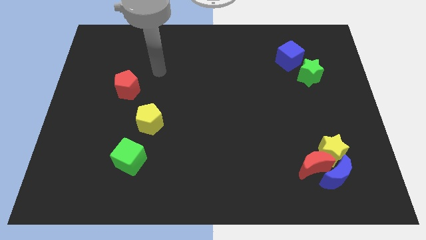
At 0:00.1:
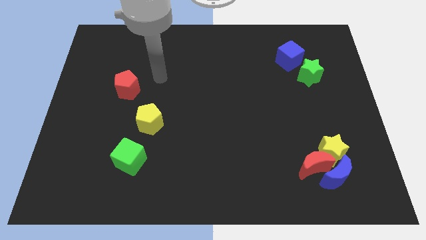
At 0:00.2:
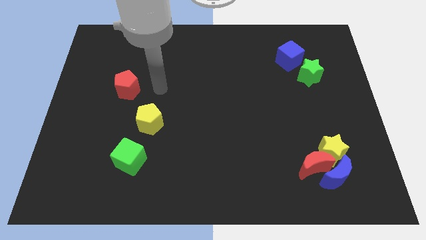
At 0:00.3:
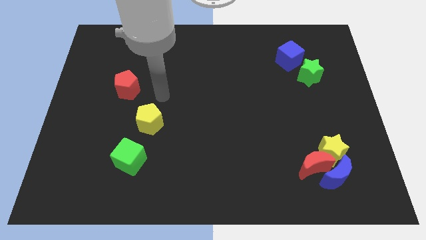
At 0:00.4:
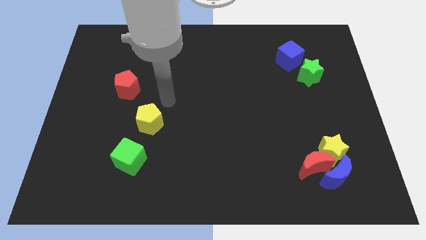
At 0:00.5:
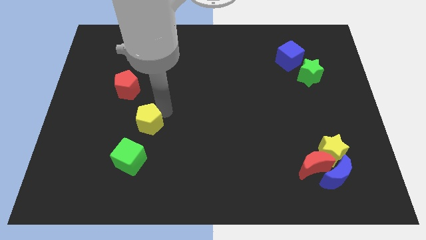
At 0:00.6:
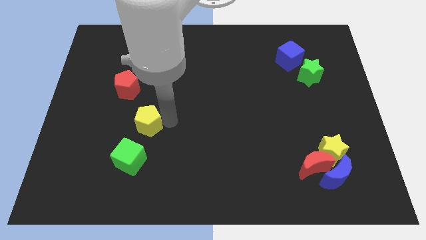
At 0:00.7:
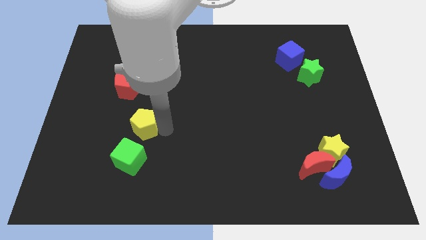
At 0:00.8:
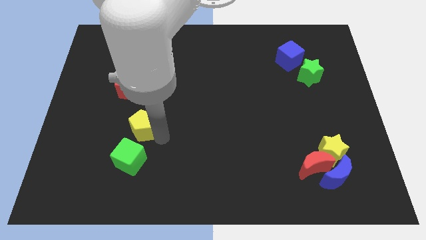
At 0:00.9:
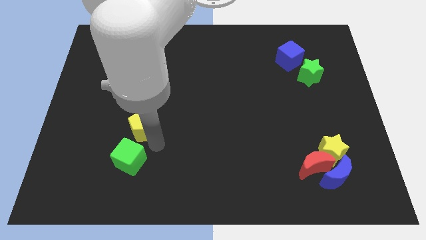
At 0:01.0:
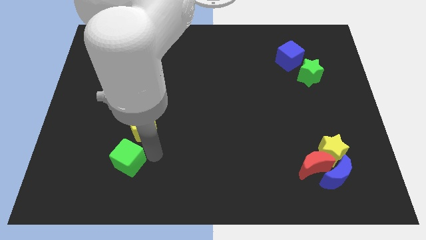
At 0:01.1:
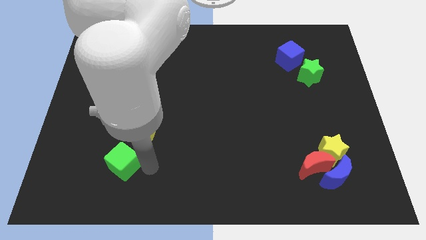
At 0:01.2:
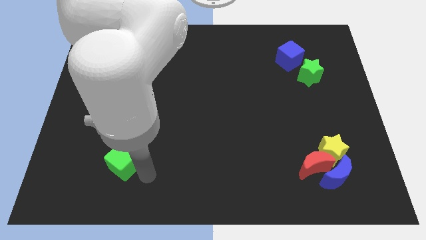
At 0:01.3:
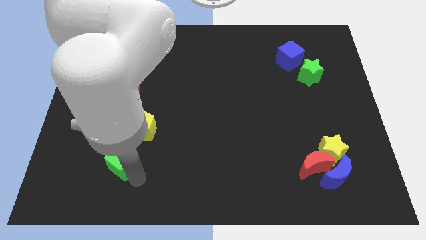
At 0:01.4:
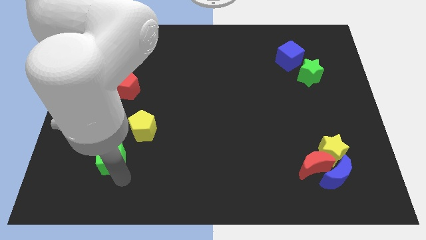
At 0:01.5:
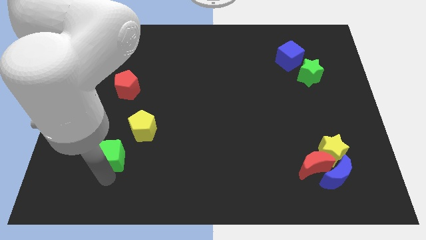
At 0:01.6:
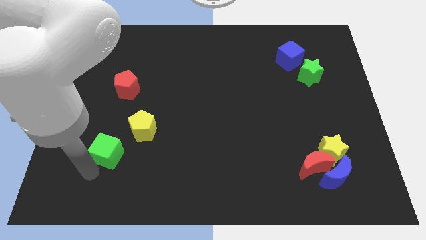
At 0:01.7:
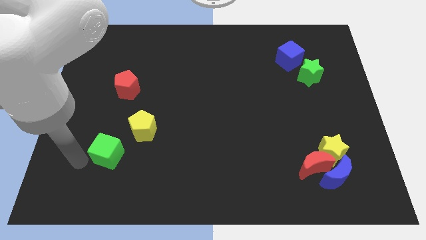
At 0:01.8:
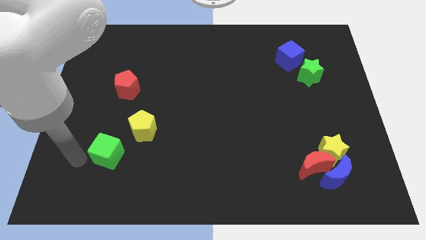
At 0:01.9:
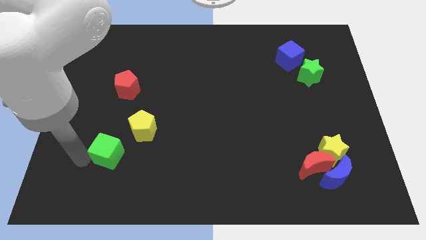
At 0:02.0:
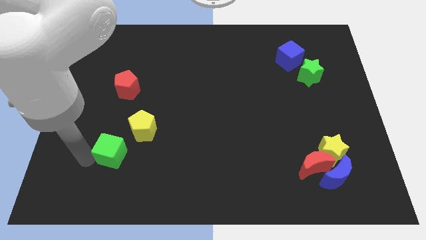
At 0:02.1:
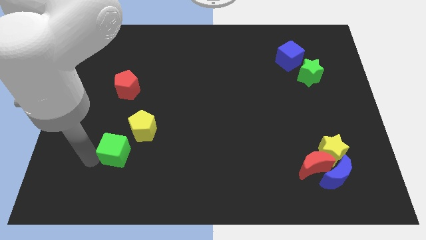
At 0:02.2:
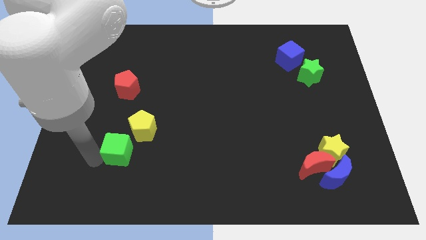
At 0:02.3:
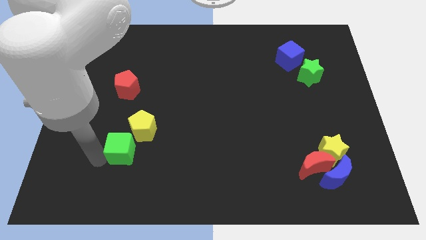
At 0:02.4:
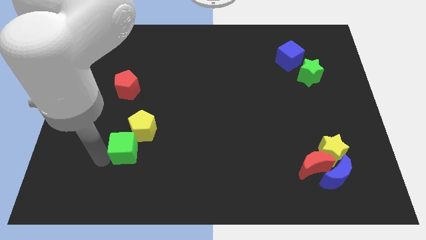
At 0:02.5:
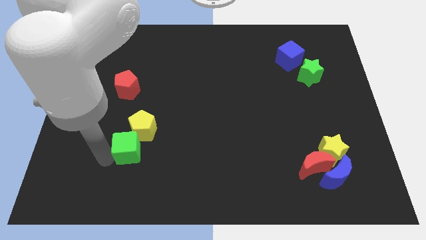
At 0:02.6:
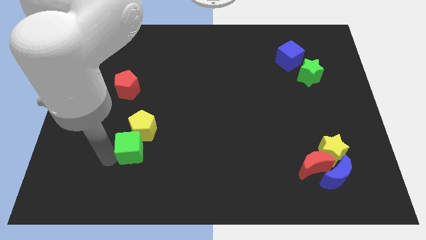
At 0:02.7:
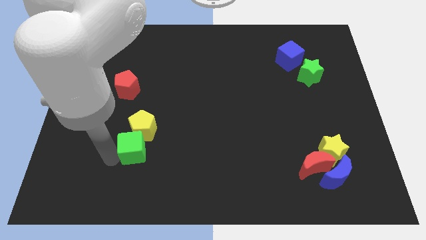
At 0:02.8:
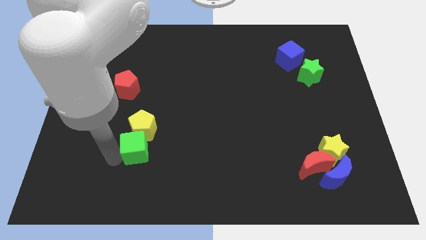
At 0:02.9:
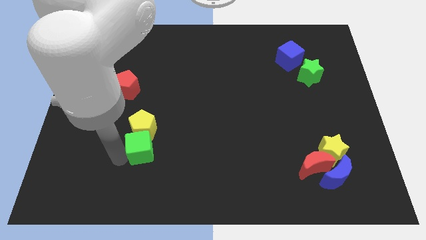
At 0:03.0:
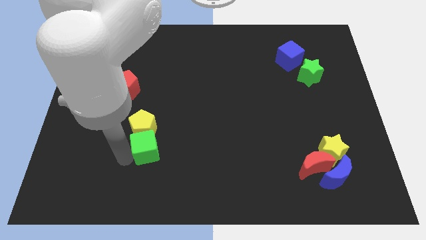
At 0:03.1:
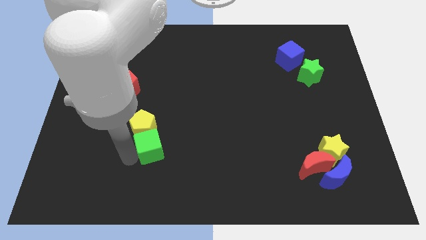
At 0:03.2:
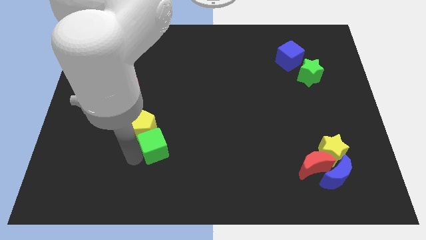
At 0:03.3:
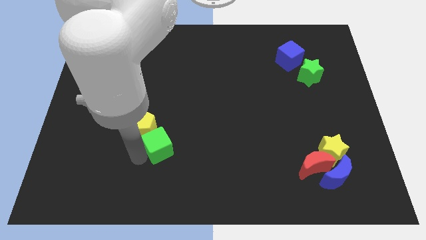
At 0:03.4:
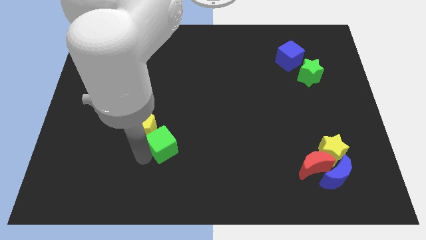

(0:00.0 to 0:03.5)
slightly push the green cube diagonally upwards and right

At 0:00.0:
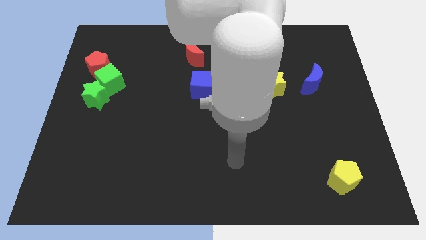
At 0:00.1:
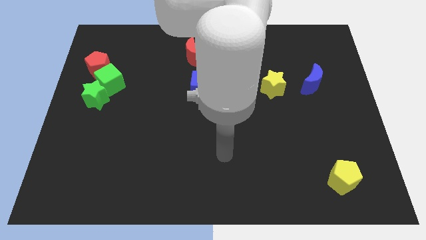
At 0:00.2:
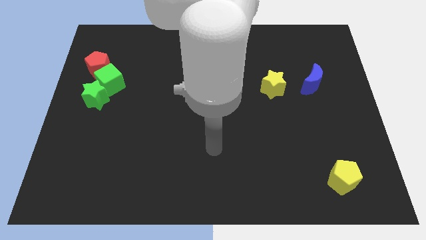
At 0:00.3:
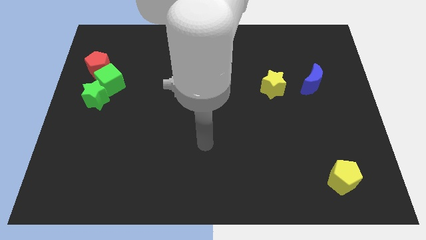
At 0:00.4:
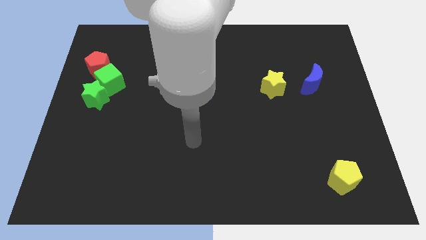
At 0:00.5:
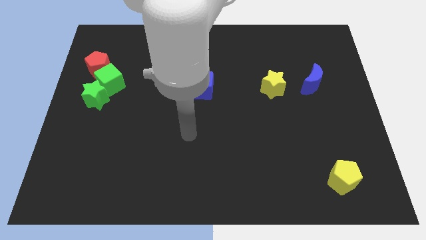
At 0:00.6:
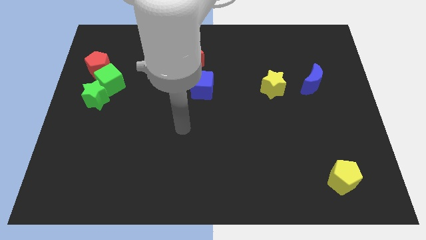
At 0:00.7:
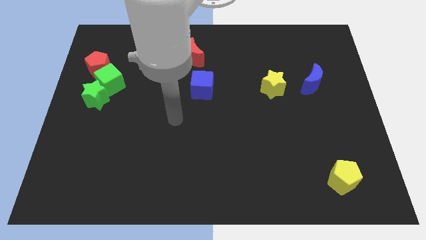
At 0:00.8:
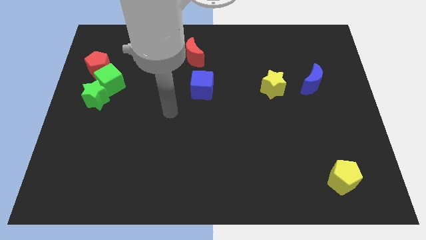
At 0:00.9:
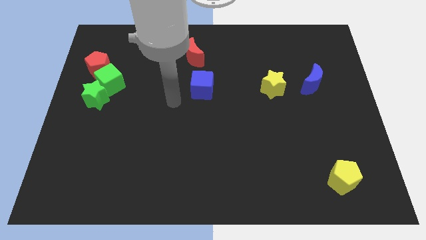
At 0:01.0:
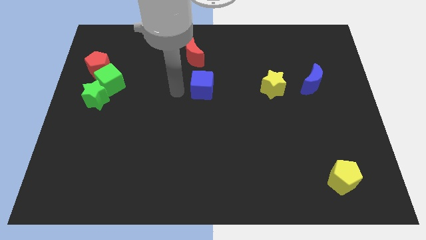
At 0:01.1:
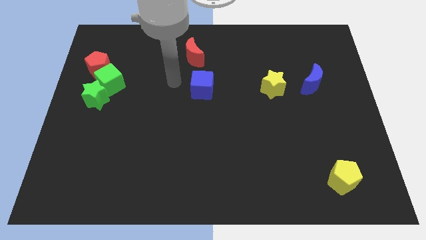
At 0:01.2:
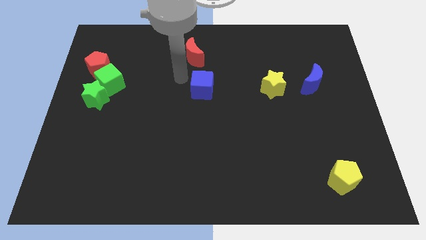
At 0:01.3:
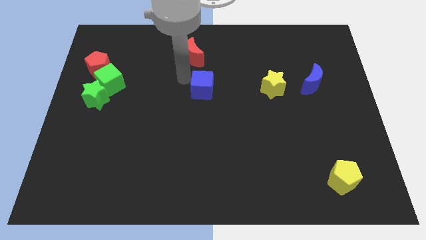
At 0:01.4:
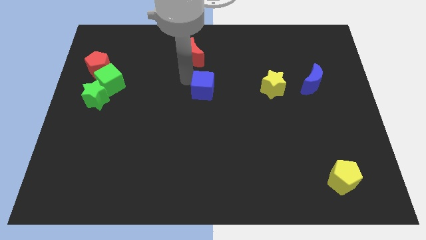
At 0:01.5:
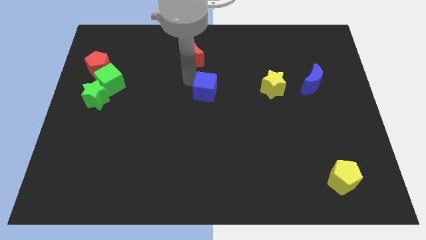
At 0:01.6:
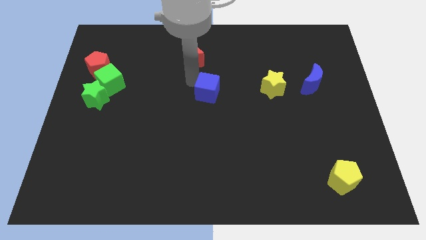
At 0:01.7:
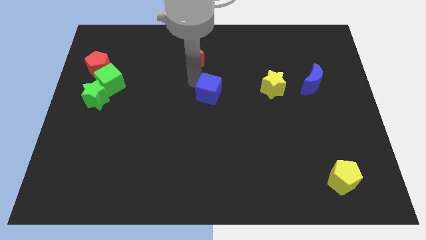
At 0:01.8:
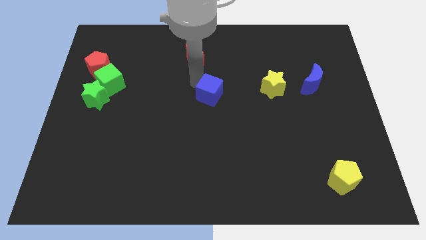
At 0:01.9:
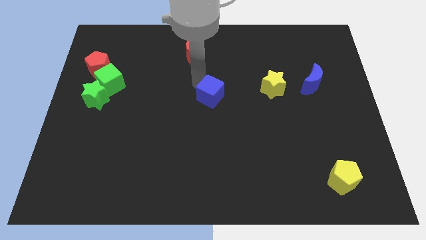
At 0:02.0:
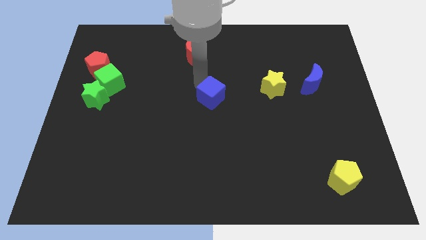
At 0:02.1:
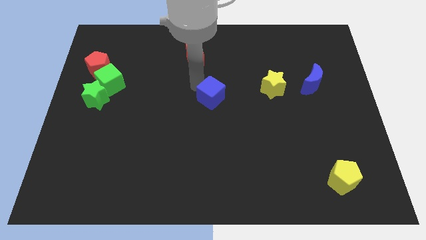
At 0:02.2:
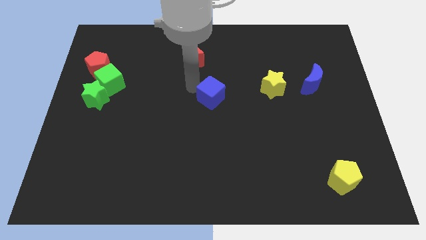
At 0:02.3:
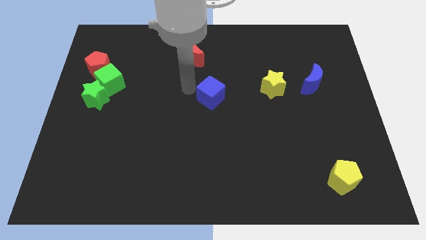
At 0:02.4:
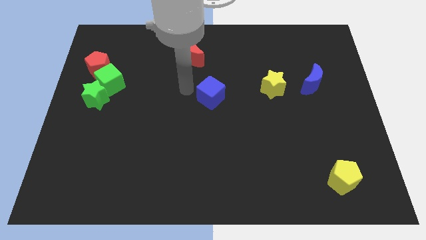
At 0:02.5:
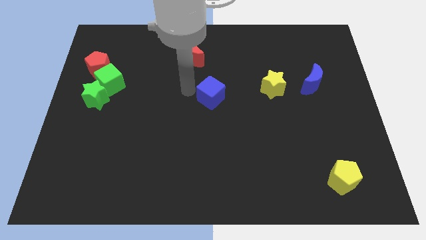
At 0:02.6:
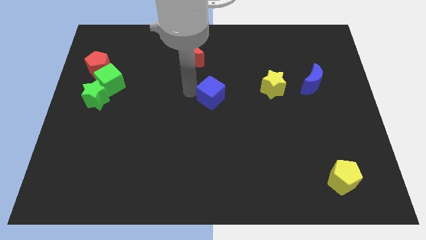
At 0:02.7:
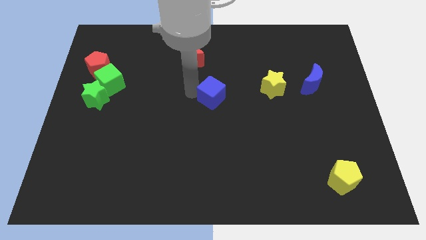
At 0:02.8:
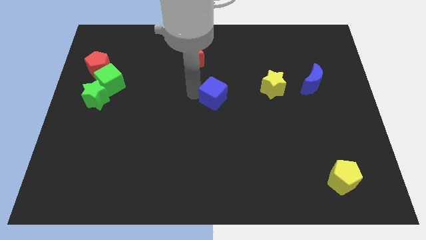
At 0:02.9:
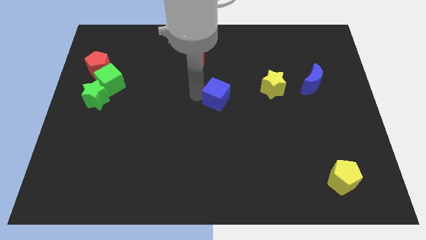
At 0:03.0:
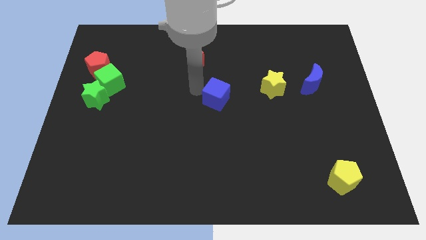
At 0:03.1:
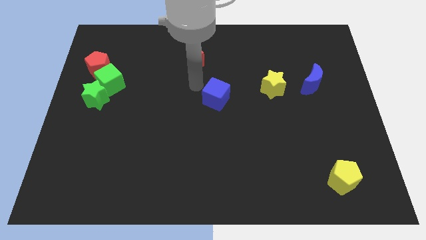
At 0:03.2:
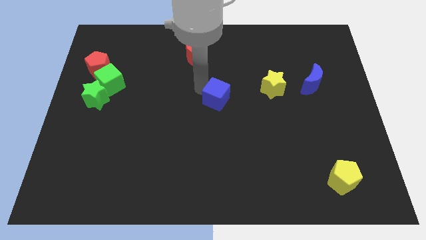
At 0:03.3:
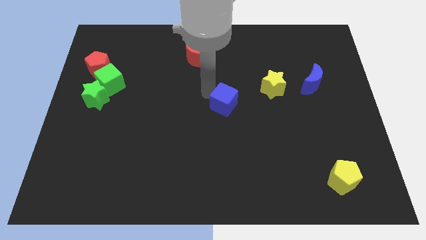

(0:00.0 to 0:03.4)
slide the blue cube slightly downwards and then right

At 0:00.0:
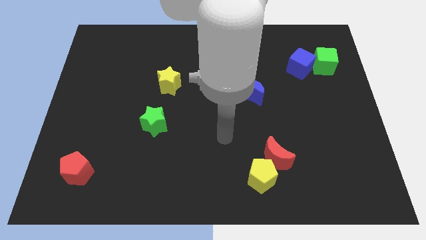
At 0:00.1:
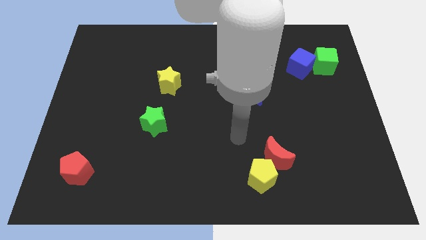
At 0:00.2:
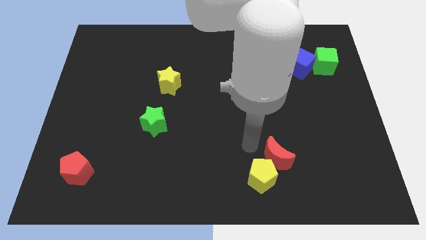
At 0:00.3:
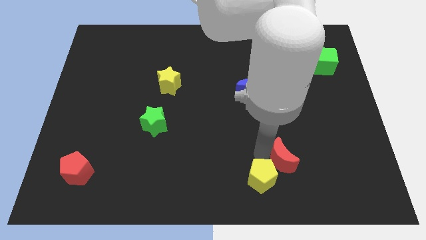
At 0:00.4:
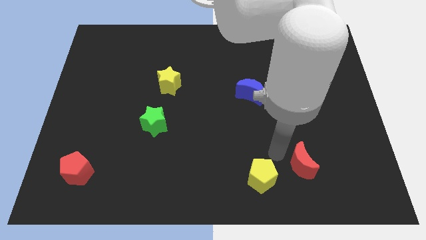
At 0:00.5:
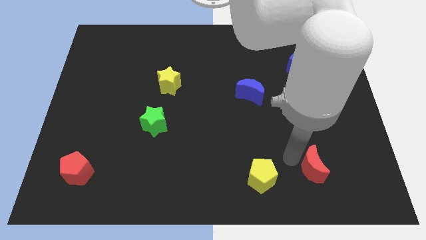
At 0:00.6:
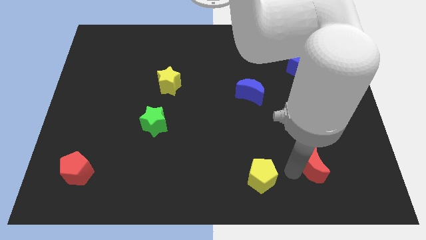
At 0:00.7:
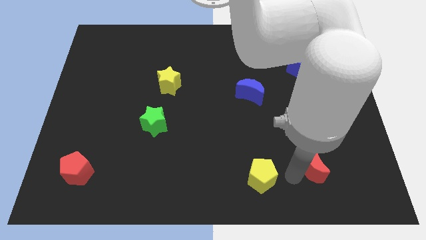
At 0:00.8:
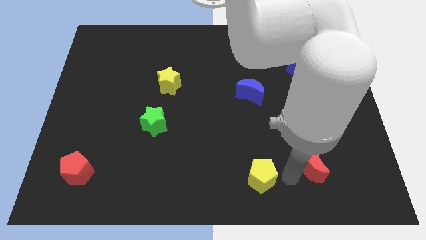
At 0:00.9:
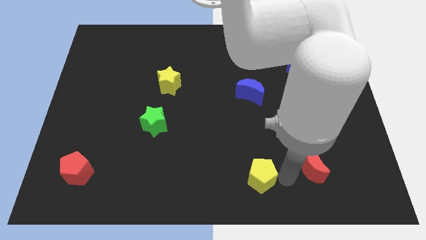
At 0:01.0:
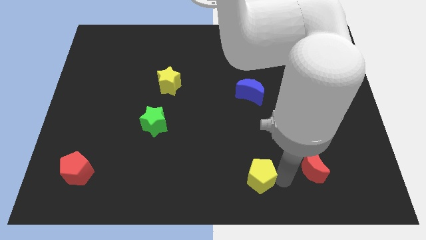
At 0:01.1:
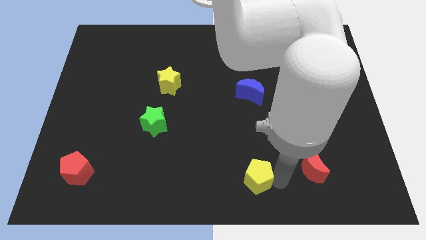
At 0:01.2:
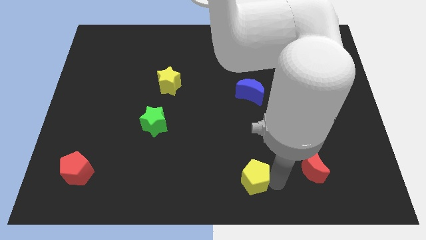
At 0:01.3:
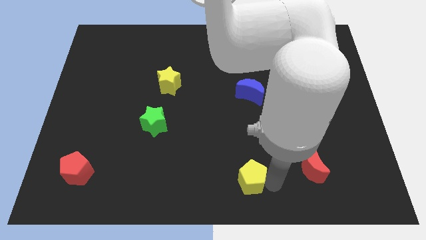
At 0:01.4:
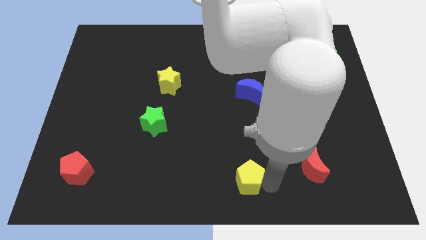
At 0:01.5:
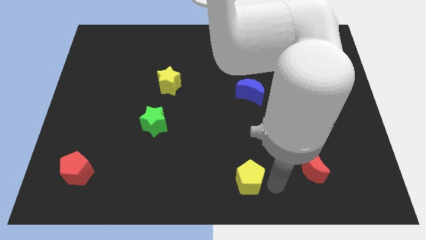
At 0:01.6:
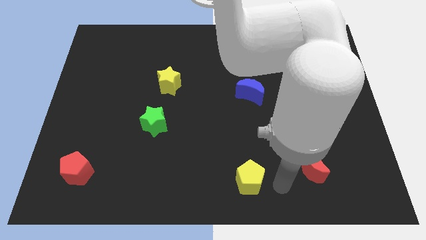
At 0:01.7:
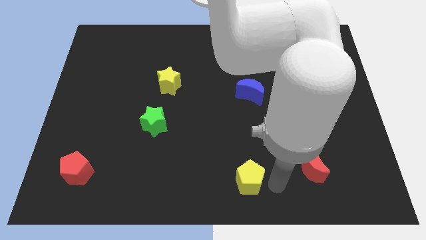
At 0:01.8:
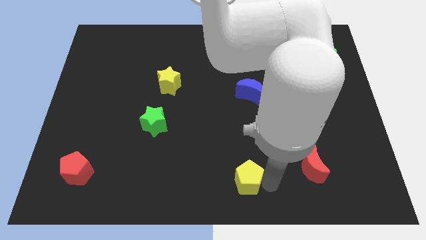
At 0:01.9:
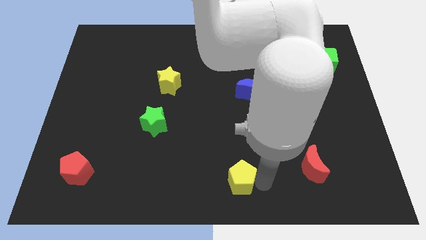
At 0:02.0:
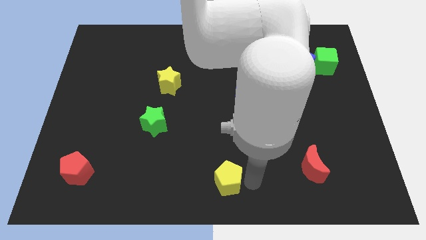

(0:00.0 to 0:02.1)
slightly move the yellow pentagon left
